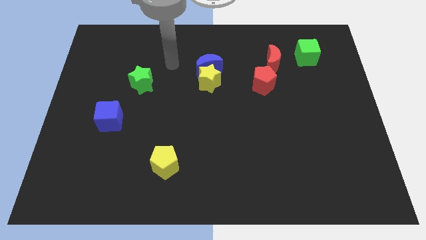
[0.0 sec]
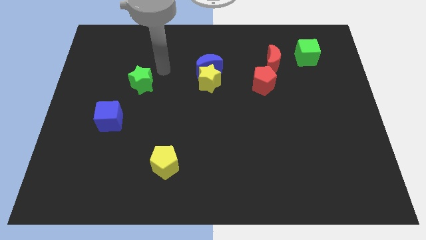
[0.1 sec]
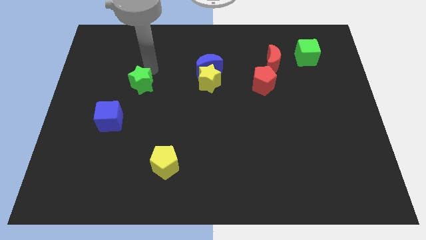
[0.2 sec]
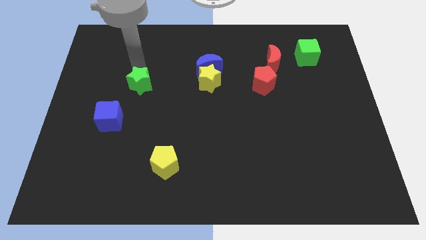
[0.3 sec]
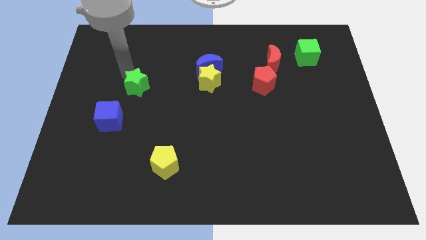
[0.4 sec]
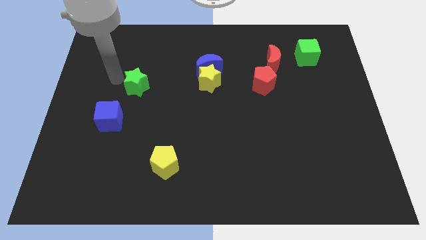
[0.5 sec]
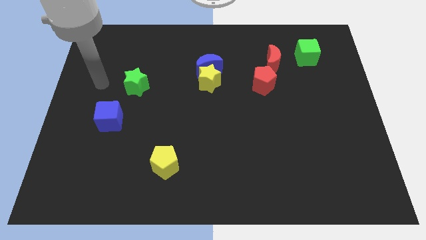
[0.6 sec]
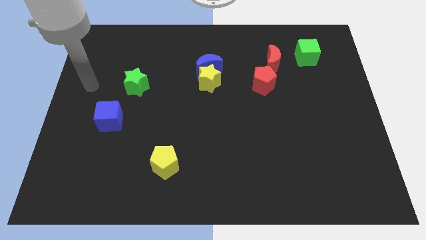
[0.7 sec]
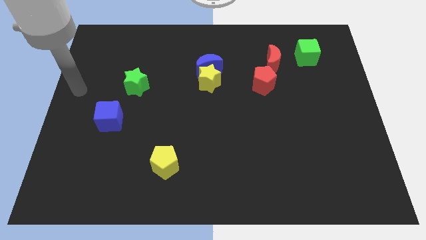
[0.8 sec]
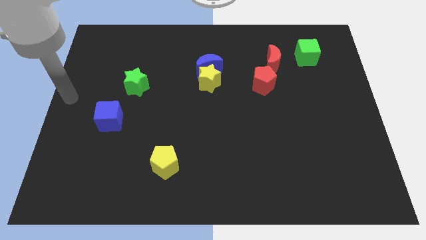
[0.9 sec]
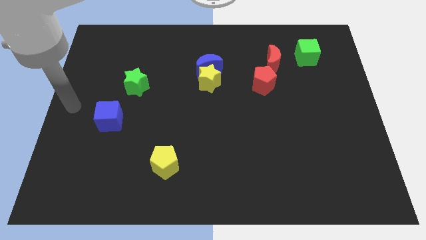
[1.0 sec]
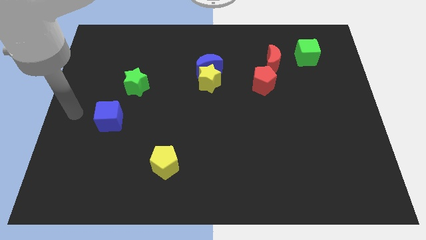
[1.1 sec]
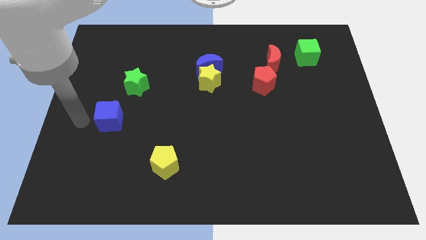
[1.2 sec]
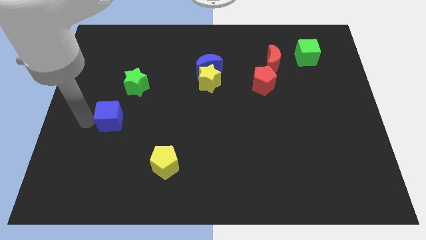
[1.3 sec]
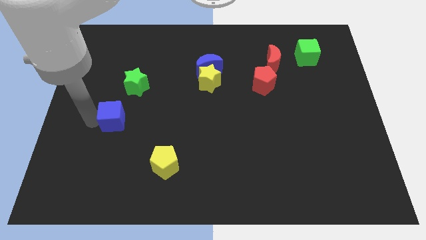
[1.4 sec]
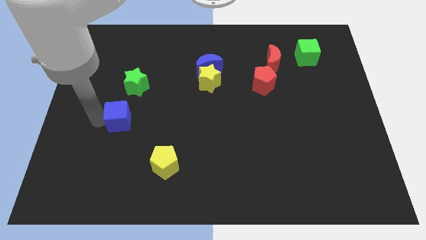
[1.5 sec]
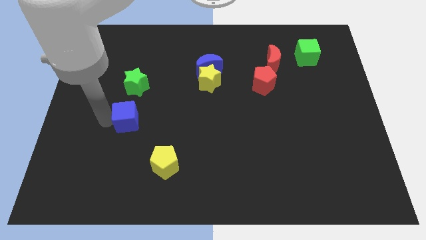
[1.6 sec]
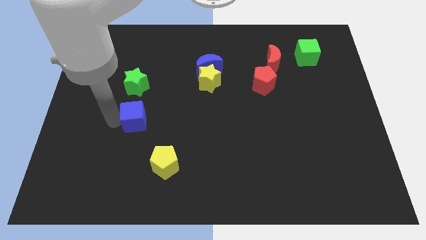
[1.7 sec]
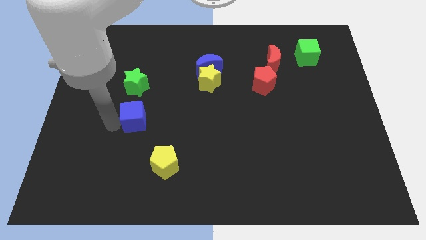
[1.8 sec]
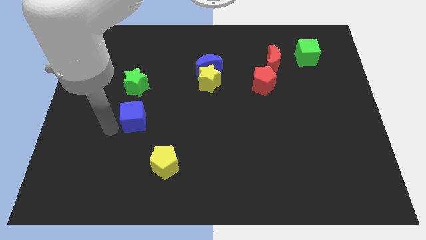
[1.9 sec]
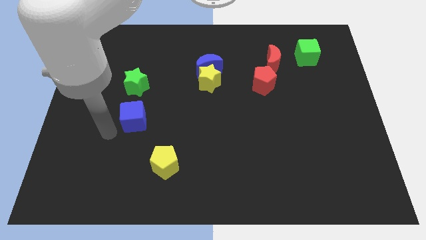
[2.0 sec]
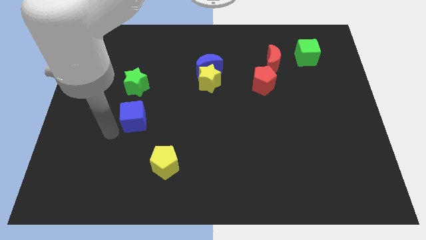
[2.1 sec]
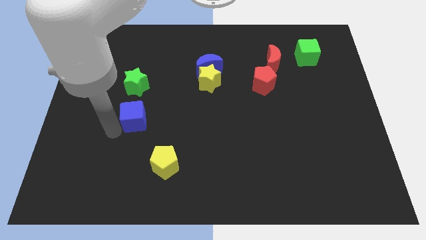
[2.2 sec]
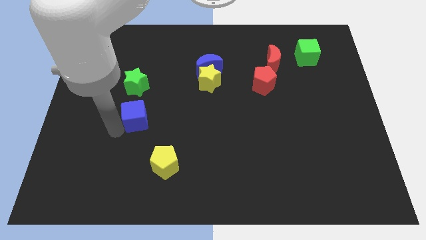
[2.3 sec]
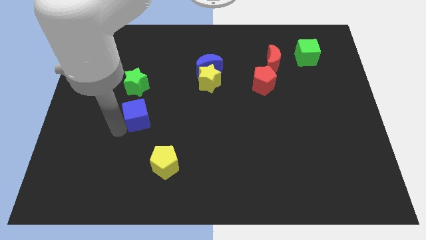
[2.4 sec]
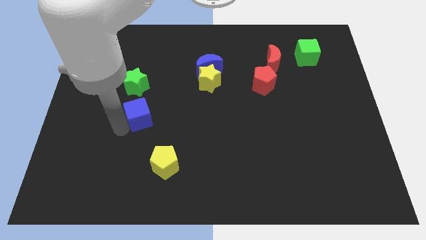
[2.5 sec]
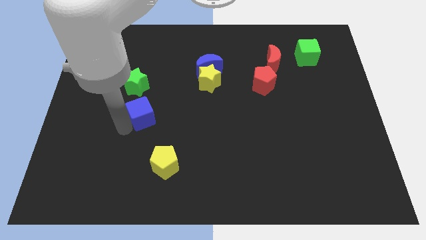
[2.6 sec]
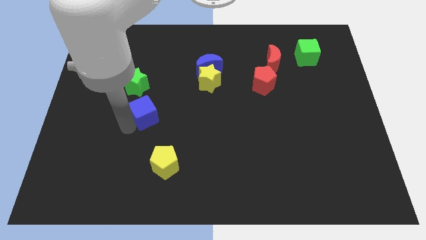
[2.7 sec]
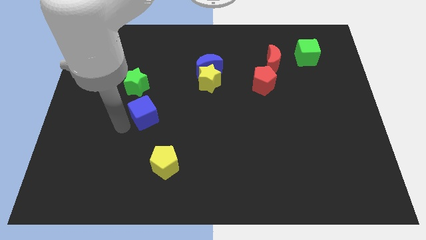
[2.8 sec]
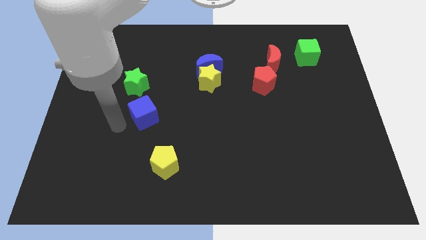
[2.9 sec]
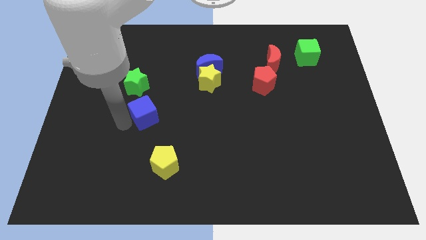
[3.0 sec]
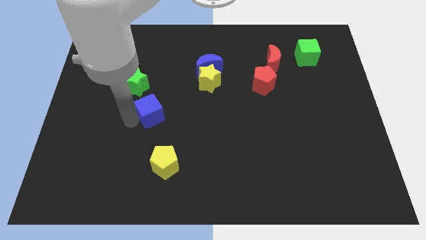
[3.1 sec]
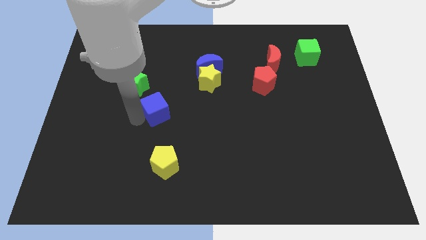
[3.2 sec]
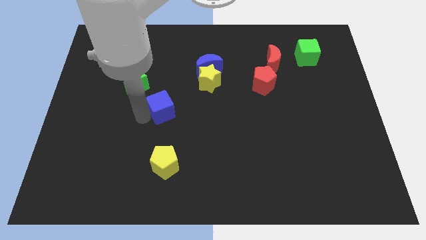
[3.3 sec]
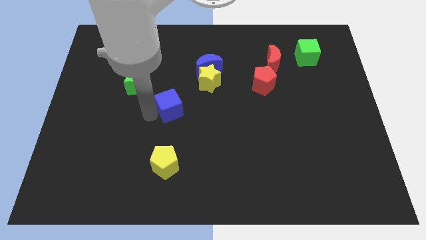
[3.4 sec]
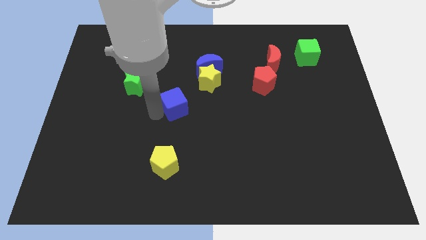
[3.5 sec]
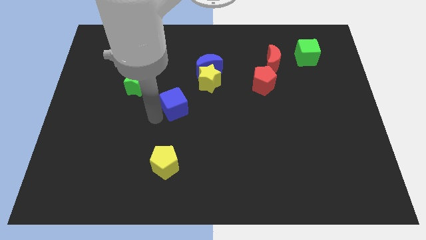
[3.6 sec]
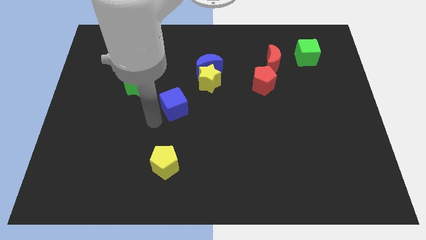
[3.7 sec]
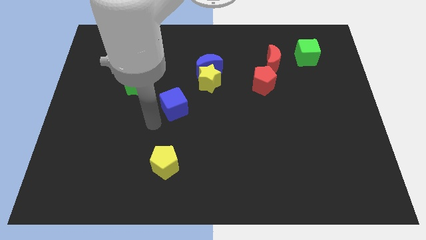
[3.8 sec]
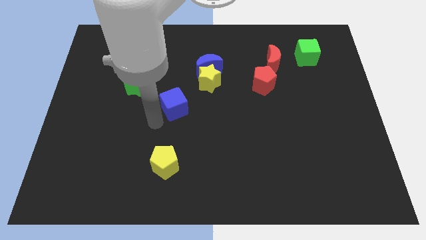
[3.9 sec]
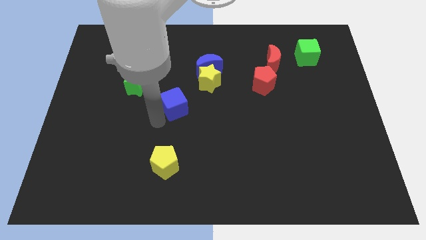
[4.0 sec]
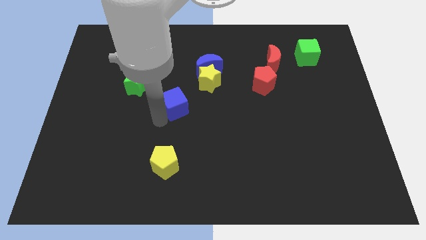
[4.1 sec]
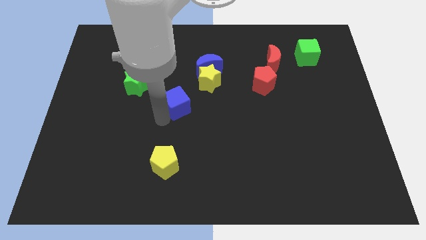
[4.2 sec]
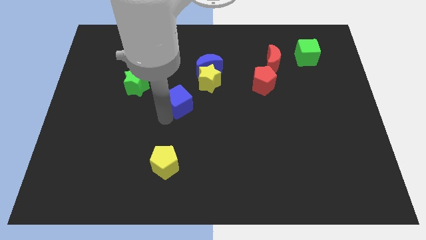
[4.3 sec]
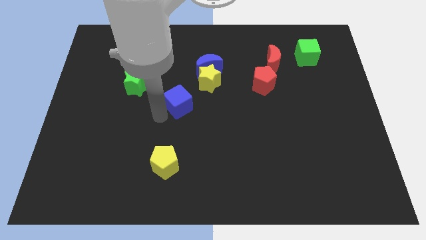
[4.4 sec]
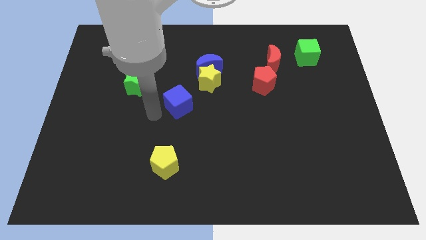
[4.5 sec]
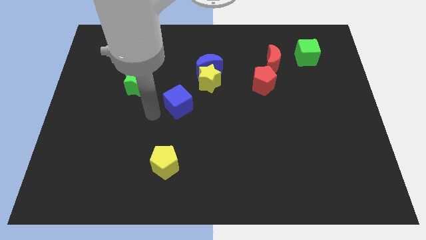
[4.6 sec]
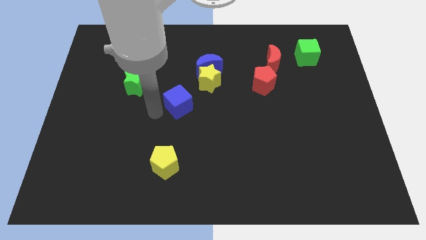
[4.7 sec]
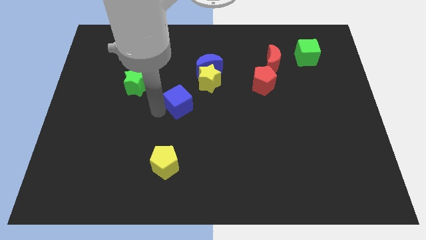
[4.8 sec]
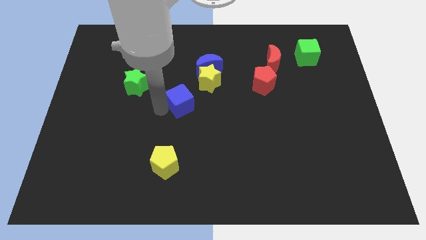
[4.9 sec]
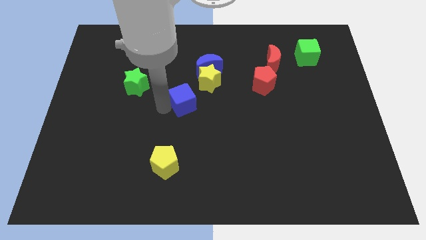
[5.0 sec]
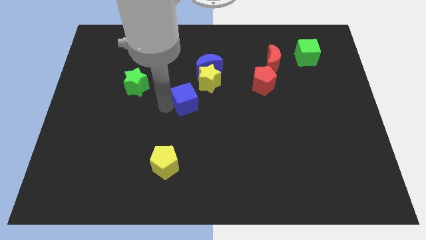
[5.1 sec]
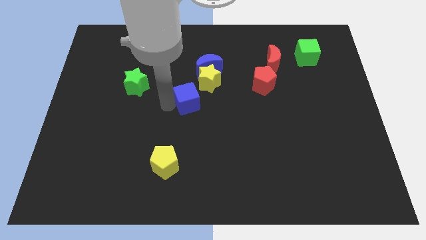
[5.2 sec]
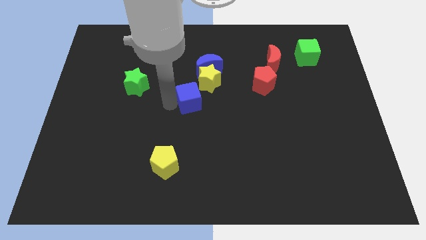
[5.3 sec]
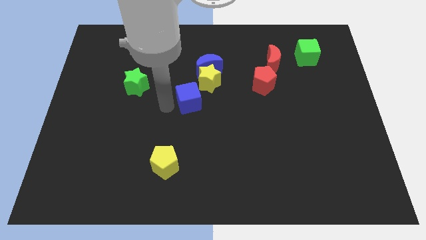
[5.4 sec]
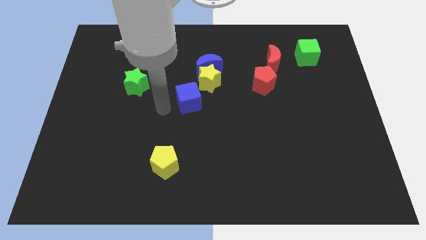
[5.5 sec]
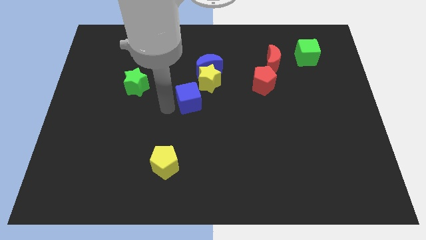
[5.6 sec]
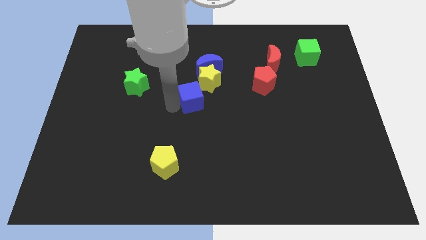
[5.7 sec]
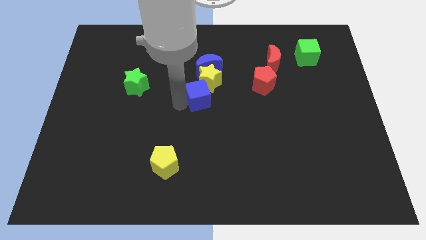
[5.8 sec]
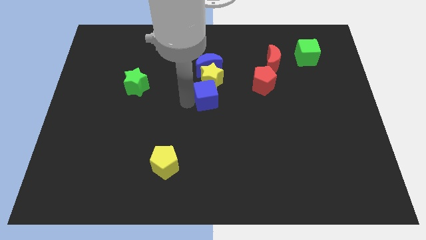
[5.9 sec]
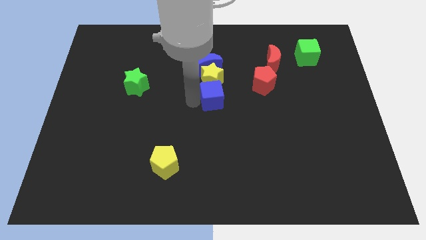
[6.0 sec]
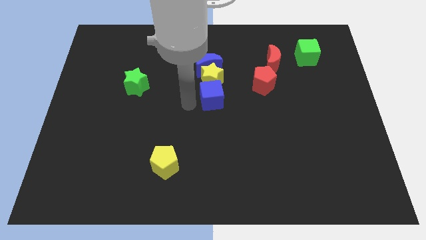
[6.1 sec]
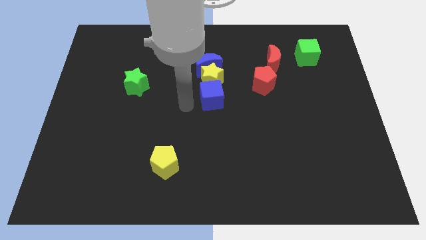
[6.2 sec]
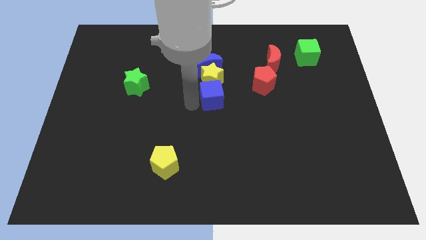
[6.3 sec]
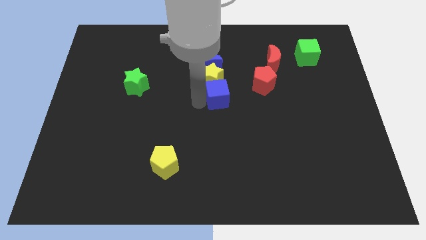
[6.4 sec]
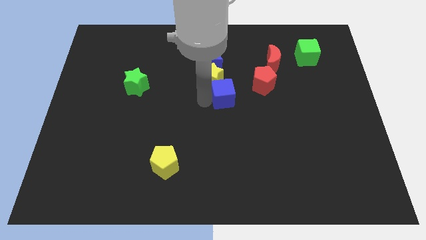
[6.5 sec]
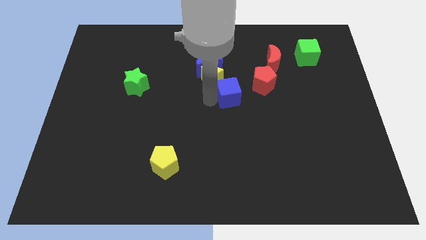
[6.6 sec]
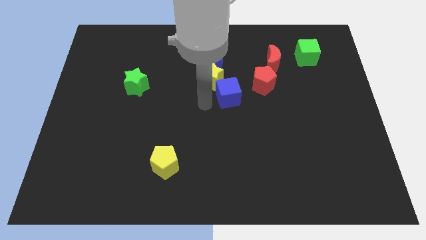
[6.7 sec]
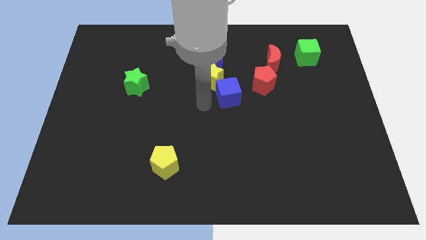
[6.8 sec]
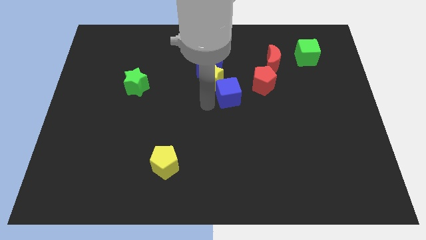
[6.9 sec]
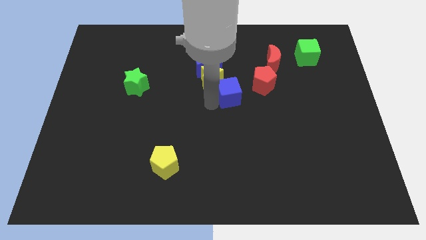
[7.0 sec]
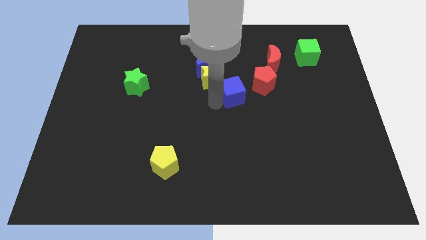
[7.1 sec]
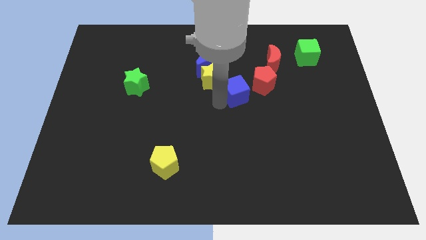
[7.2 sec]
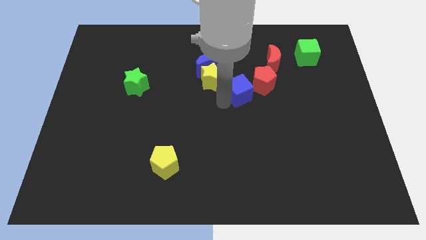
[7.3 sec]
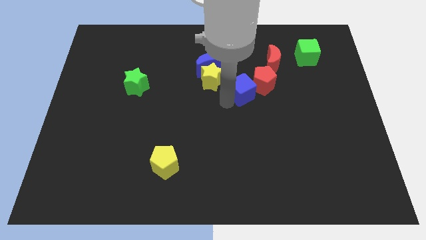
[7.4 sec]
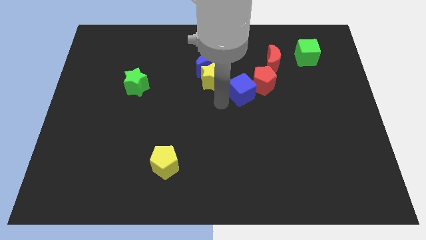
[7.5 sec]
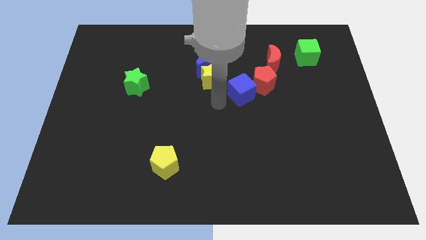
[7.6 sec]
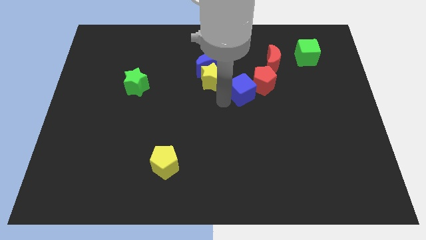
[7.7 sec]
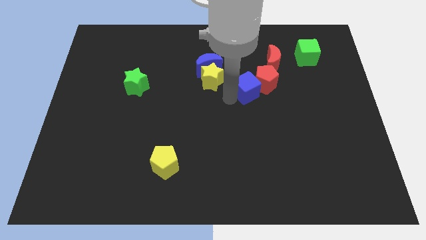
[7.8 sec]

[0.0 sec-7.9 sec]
put the blue cube close to the red pentagon
